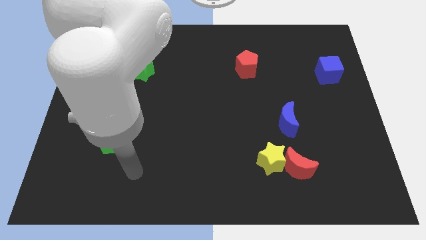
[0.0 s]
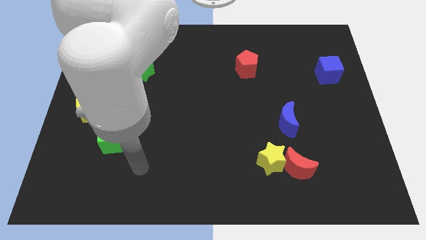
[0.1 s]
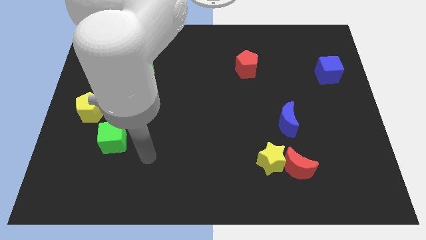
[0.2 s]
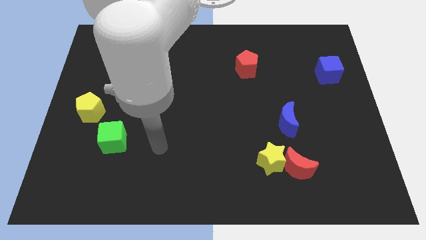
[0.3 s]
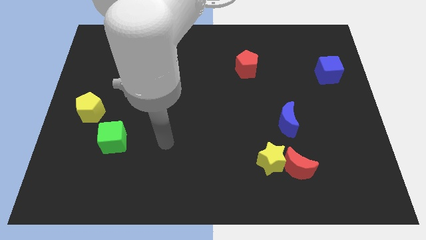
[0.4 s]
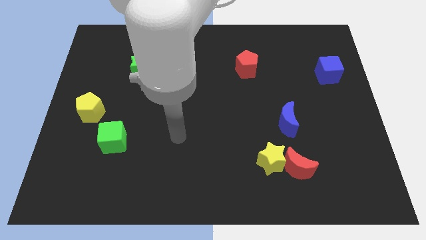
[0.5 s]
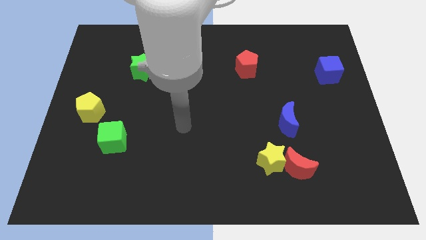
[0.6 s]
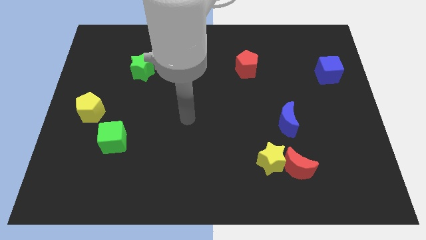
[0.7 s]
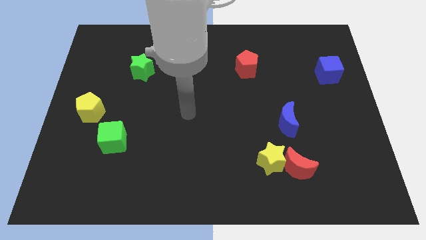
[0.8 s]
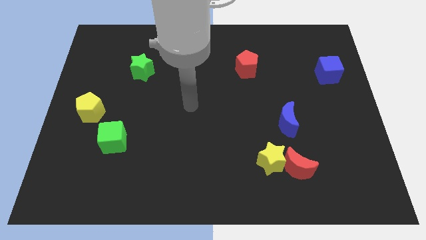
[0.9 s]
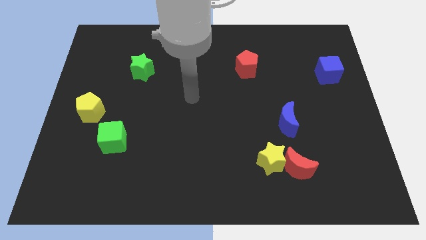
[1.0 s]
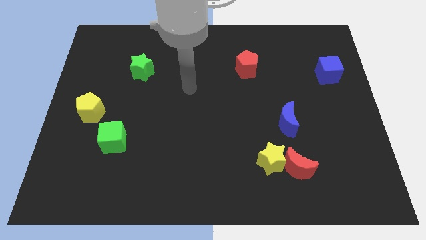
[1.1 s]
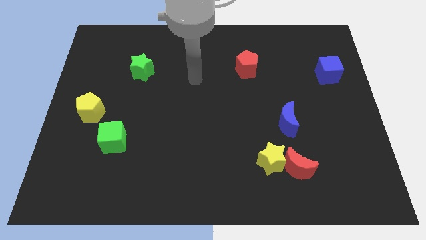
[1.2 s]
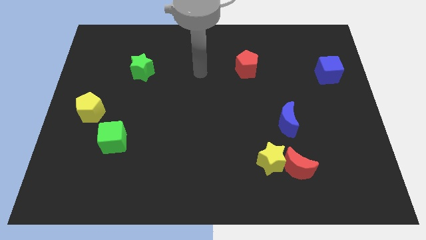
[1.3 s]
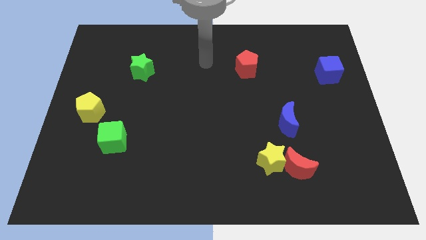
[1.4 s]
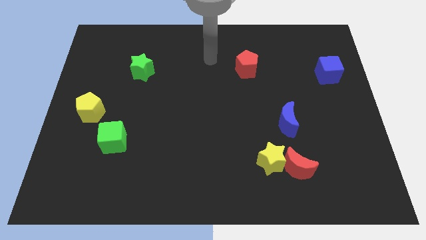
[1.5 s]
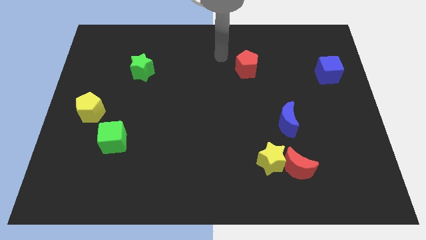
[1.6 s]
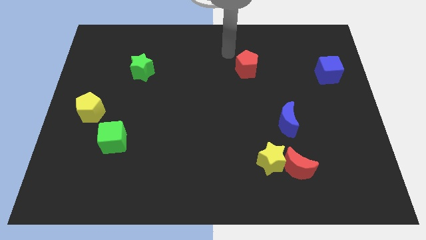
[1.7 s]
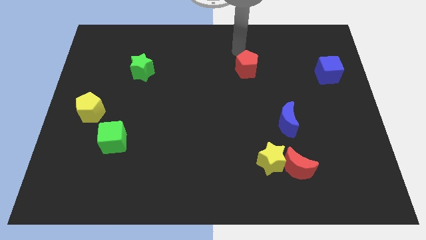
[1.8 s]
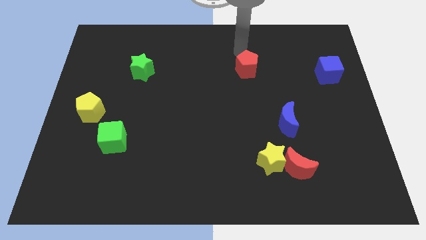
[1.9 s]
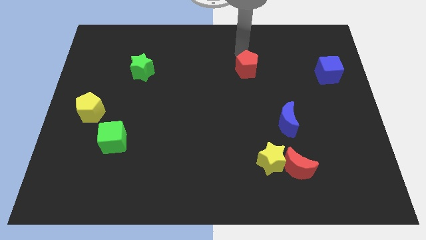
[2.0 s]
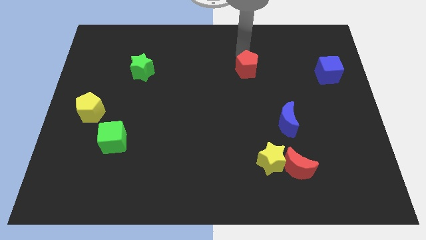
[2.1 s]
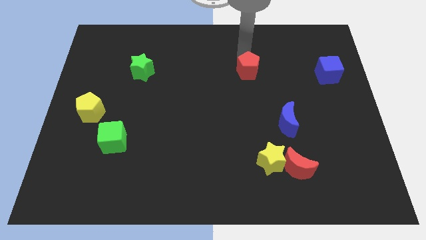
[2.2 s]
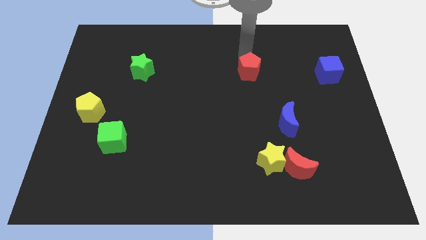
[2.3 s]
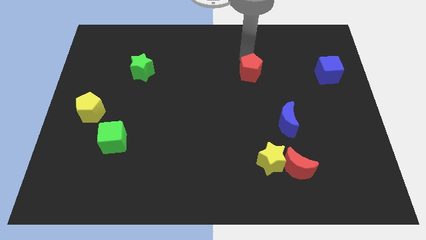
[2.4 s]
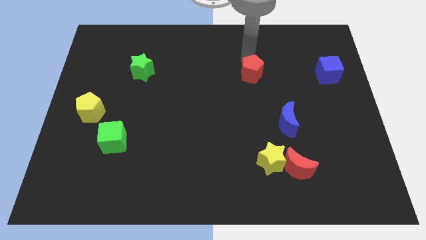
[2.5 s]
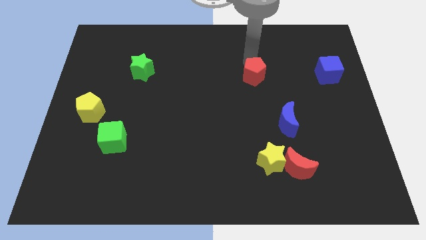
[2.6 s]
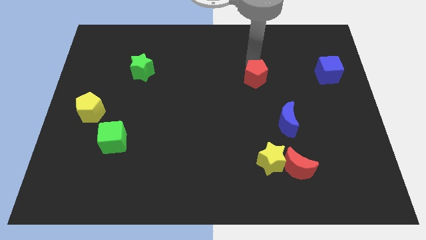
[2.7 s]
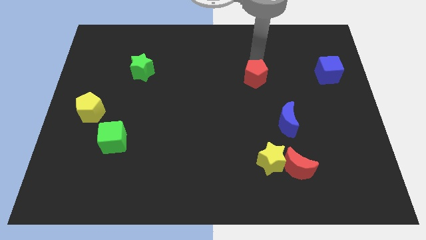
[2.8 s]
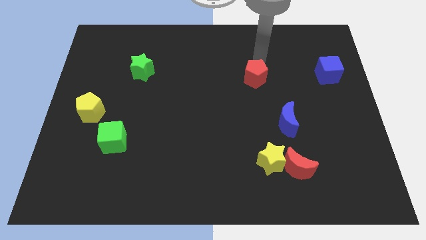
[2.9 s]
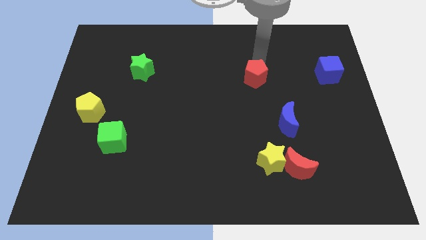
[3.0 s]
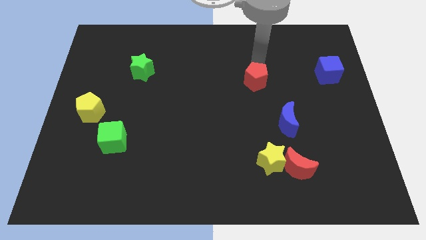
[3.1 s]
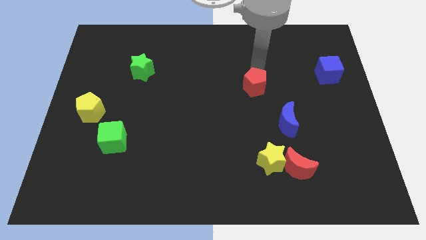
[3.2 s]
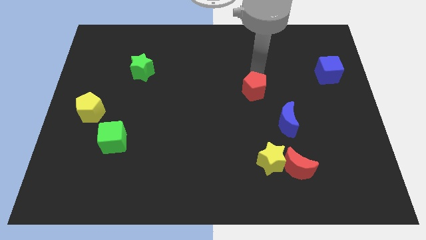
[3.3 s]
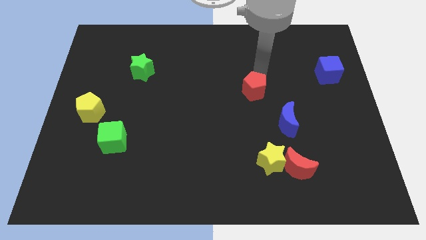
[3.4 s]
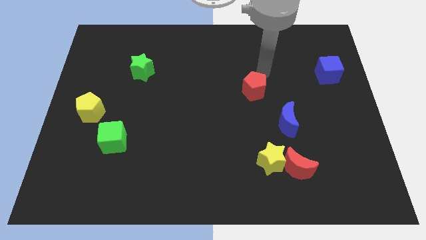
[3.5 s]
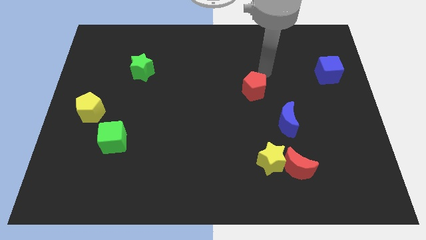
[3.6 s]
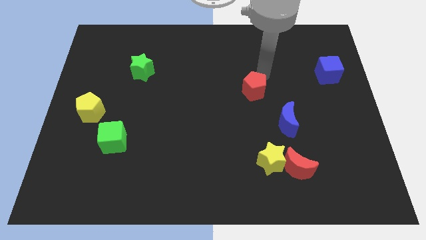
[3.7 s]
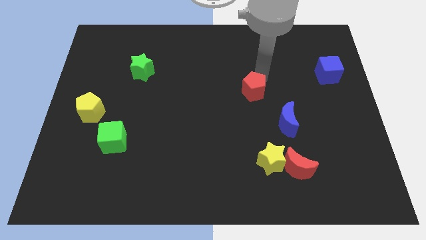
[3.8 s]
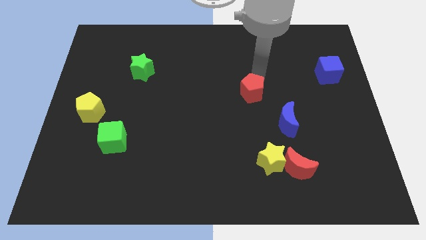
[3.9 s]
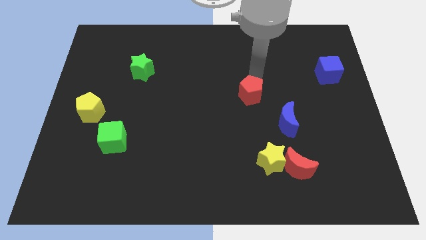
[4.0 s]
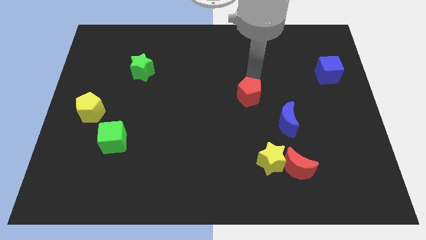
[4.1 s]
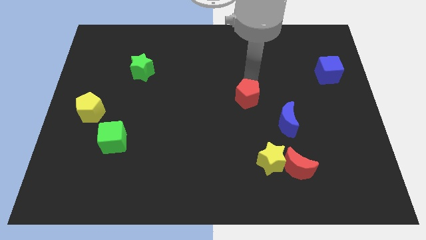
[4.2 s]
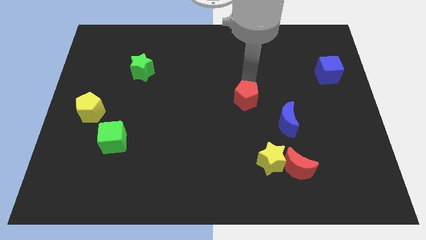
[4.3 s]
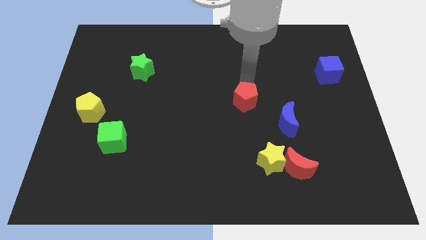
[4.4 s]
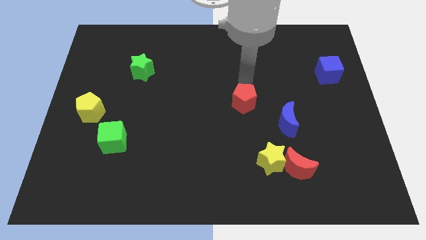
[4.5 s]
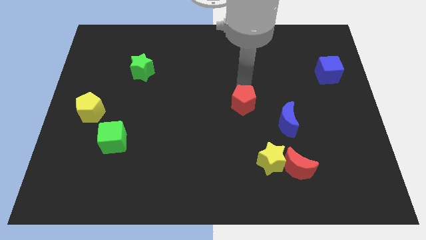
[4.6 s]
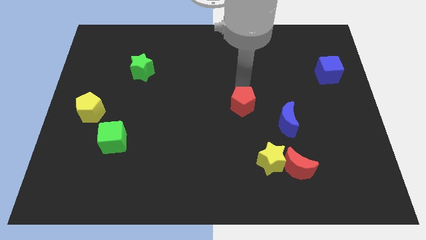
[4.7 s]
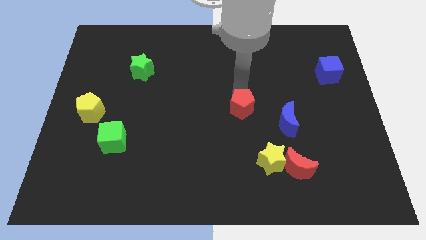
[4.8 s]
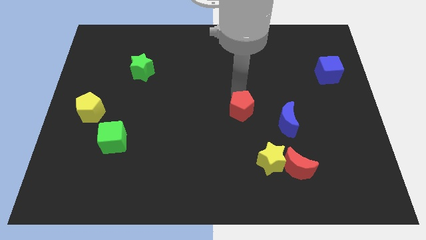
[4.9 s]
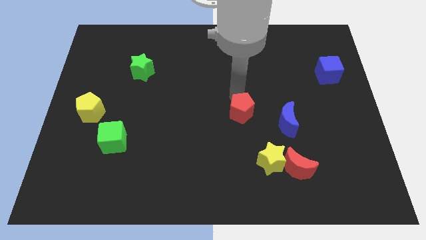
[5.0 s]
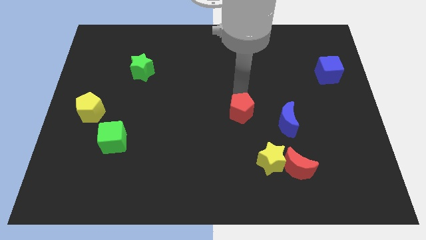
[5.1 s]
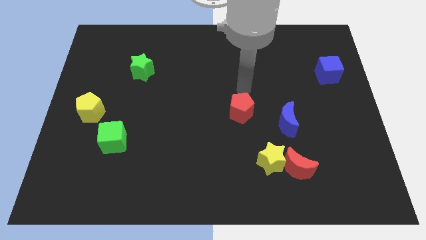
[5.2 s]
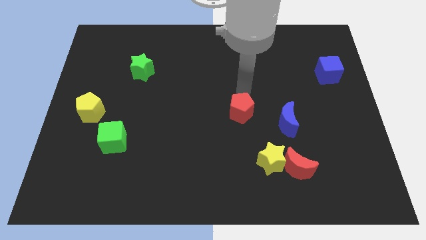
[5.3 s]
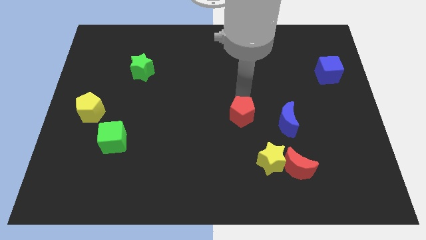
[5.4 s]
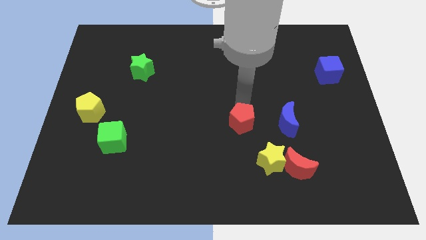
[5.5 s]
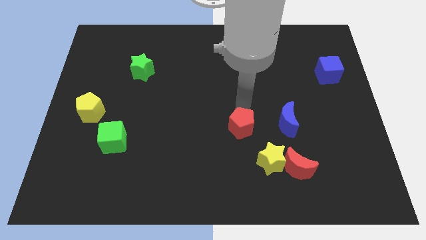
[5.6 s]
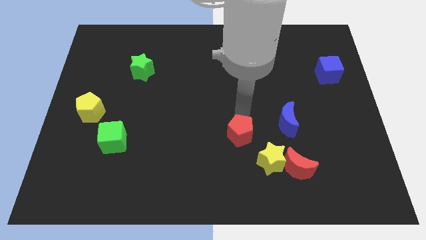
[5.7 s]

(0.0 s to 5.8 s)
push the red pentagon downwards

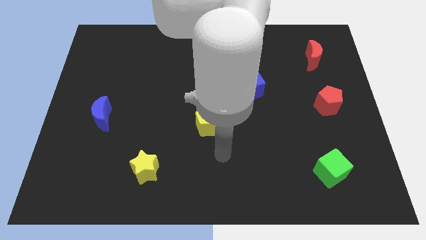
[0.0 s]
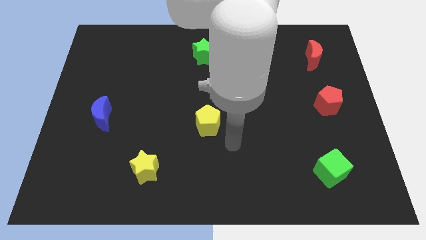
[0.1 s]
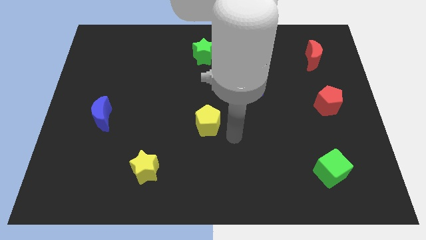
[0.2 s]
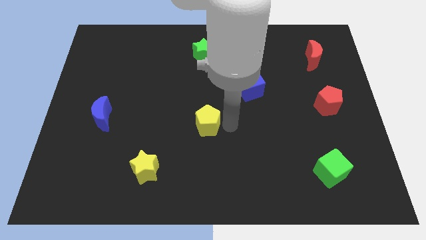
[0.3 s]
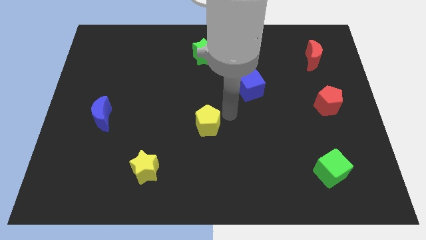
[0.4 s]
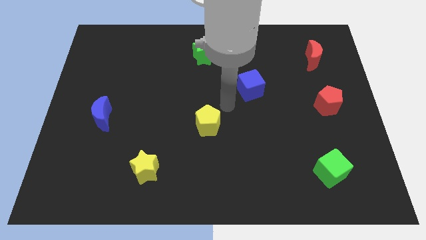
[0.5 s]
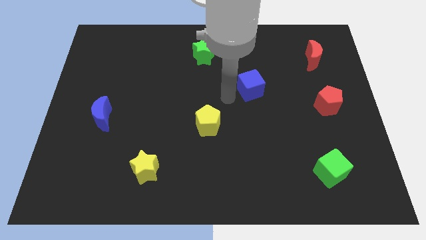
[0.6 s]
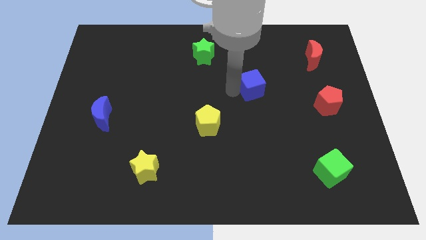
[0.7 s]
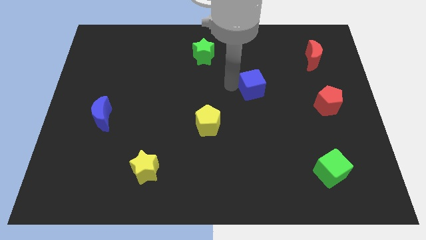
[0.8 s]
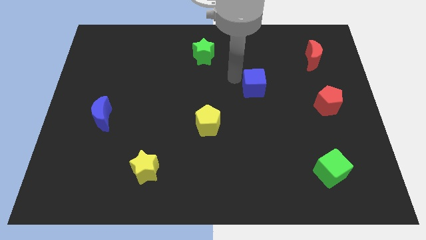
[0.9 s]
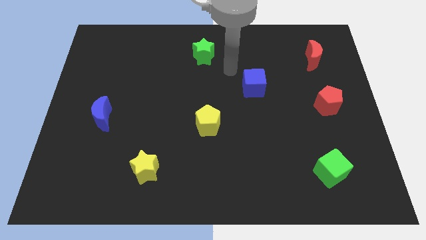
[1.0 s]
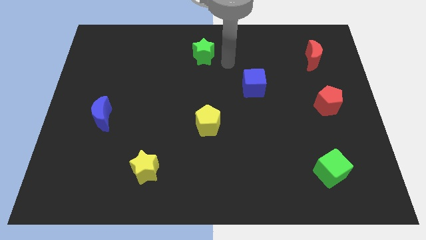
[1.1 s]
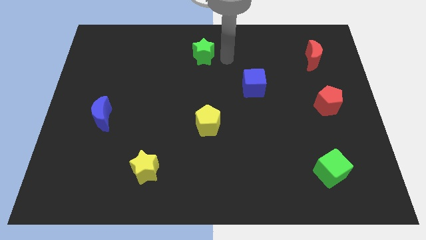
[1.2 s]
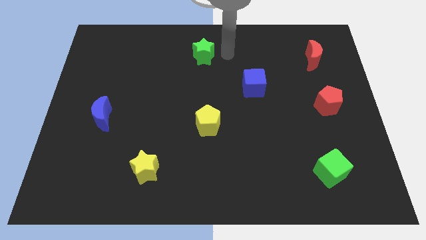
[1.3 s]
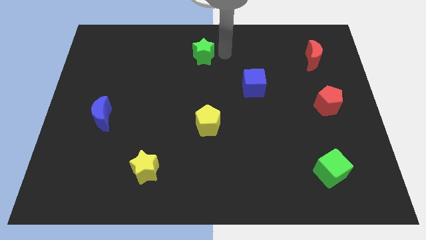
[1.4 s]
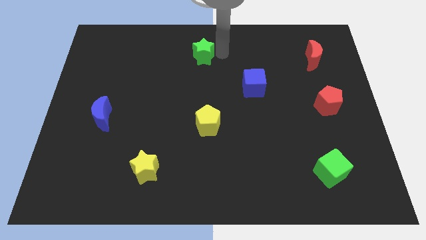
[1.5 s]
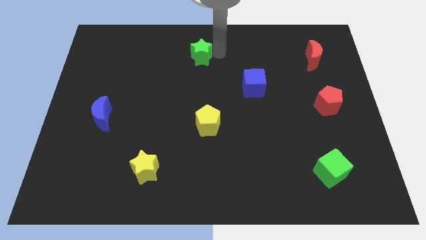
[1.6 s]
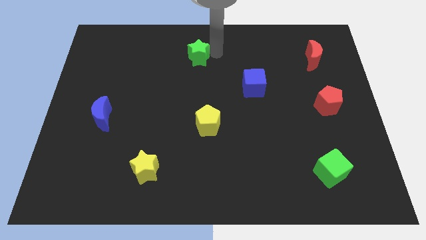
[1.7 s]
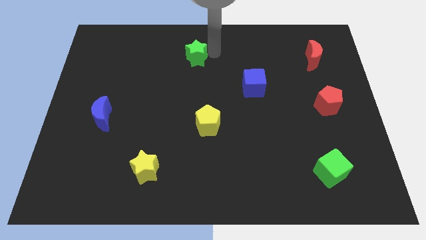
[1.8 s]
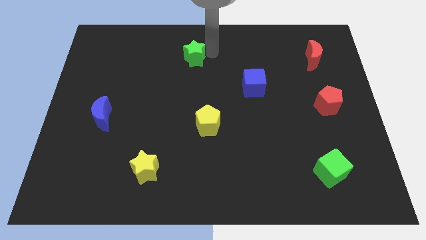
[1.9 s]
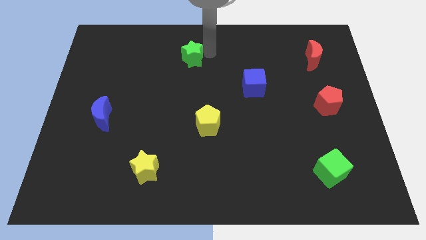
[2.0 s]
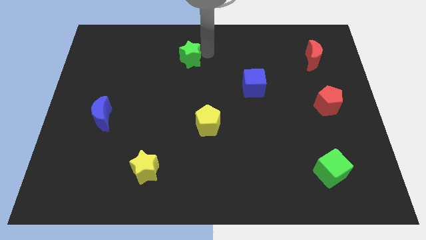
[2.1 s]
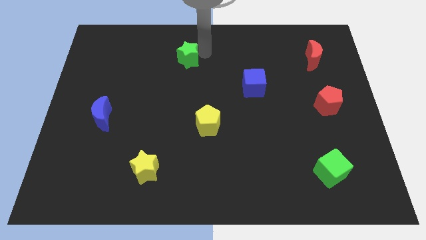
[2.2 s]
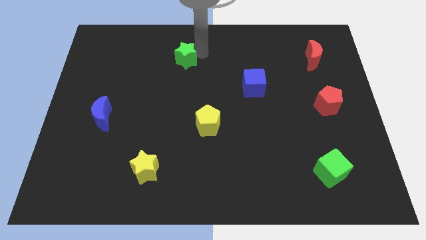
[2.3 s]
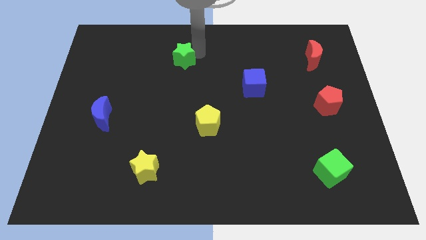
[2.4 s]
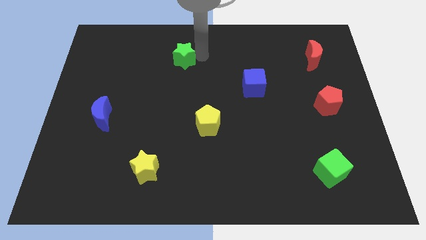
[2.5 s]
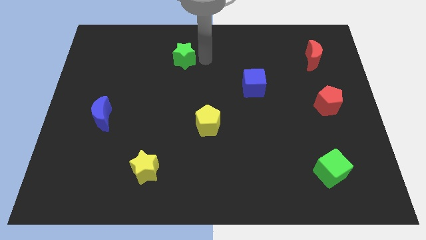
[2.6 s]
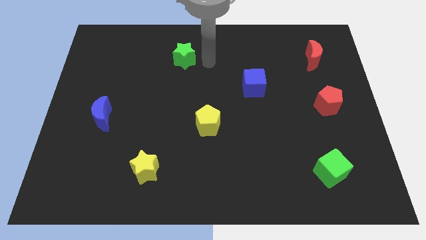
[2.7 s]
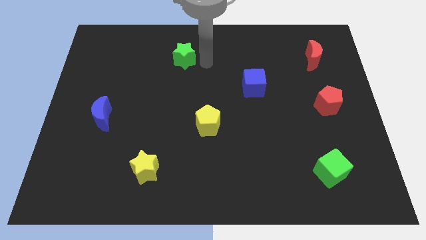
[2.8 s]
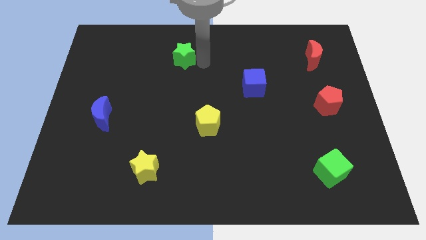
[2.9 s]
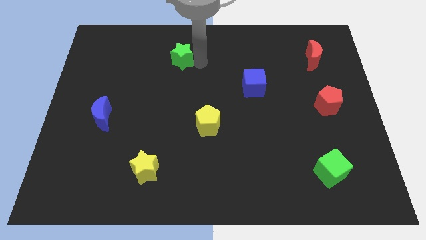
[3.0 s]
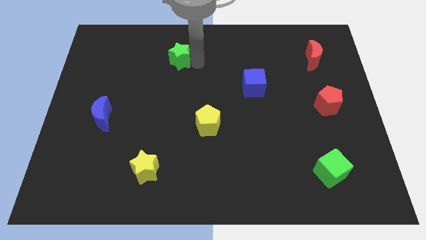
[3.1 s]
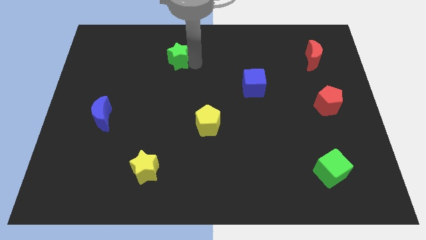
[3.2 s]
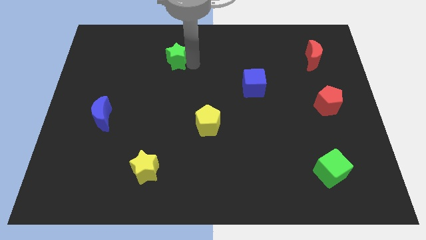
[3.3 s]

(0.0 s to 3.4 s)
slightly move the green star to the left
